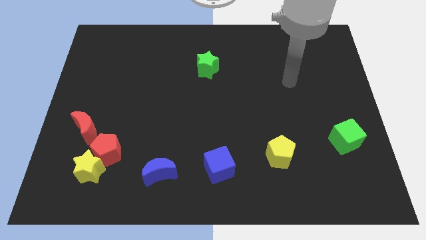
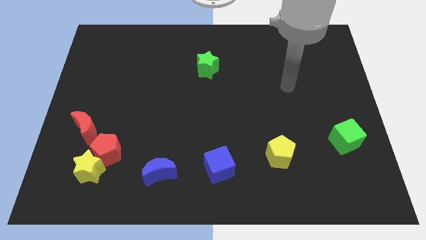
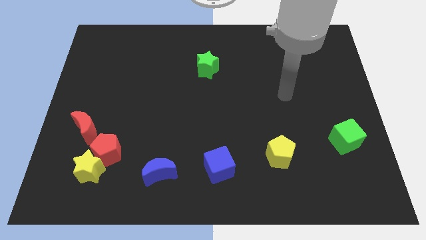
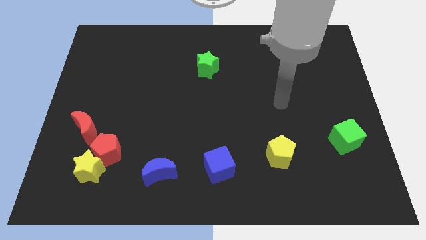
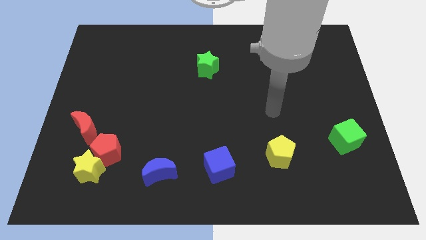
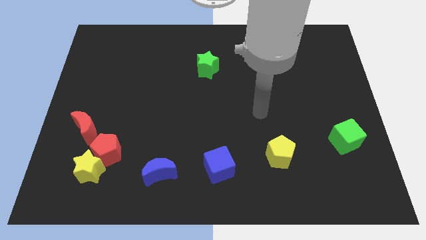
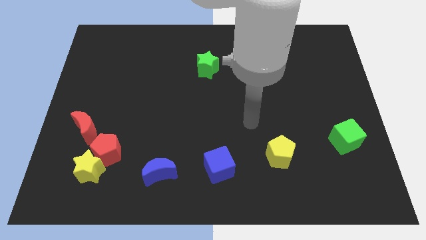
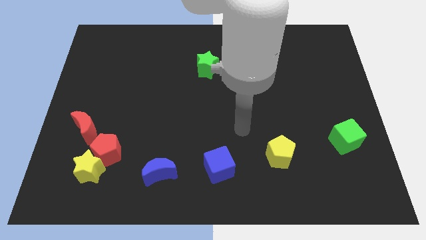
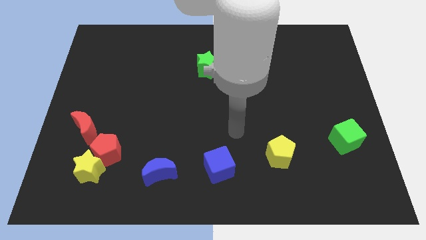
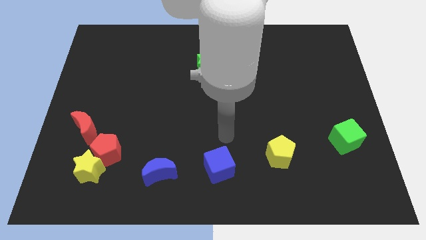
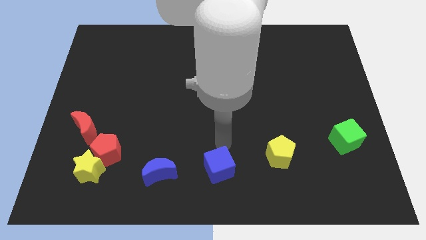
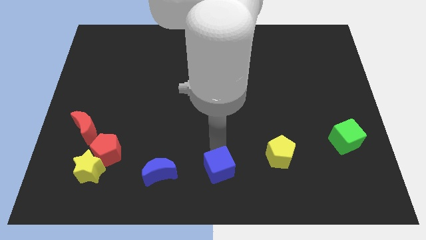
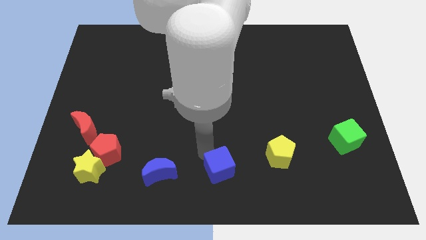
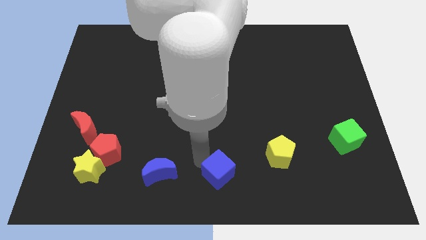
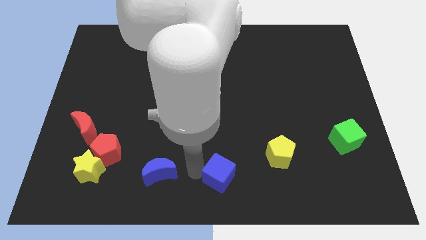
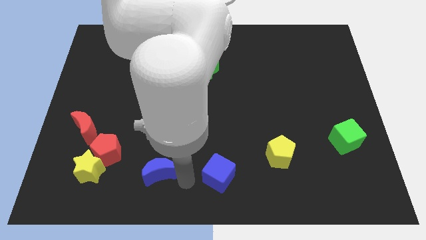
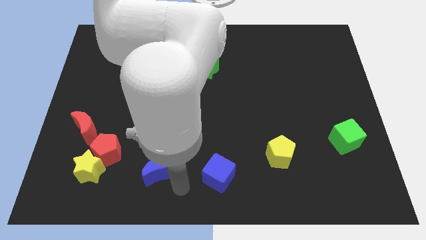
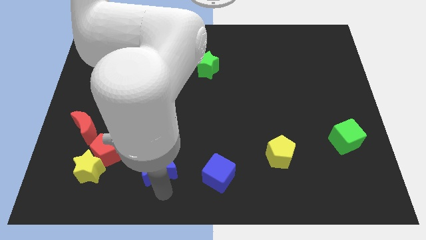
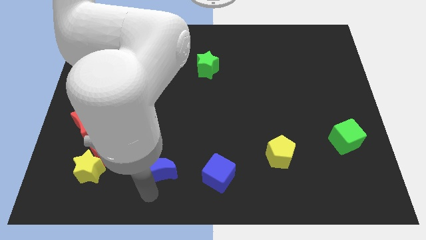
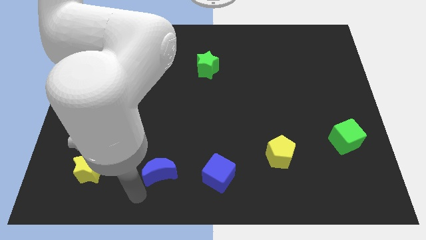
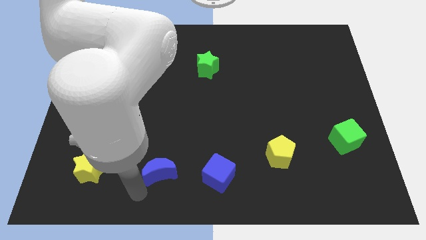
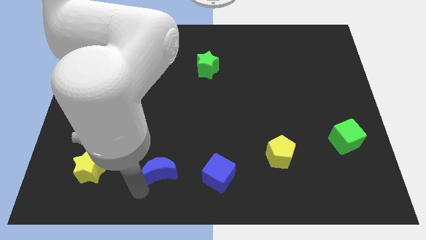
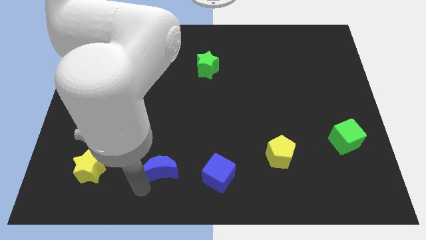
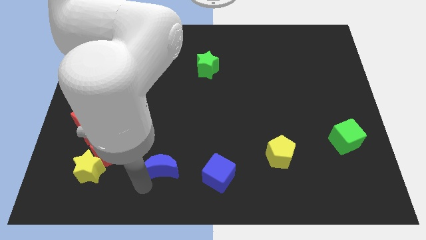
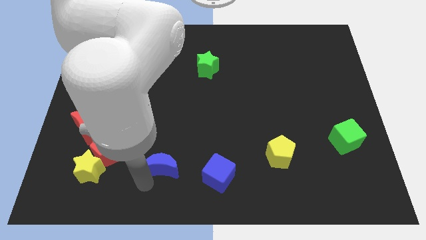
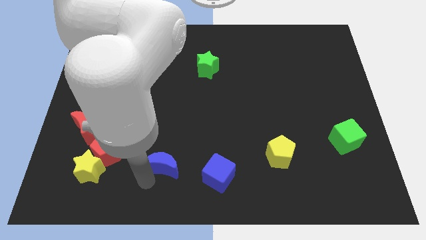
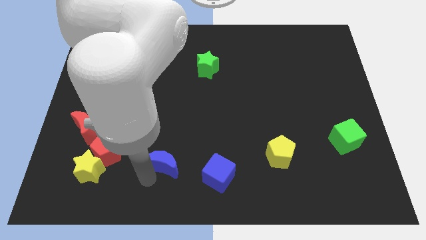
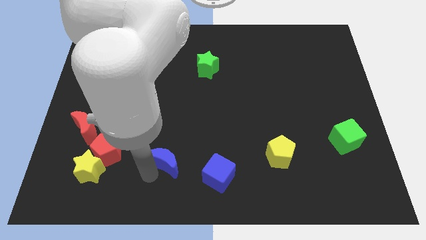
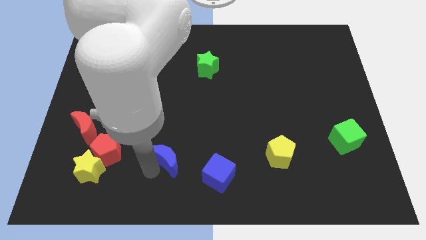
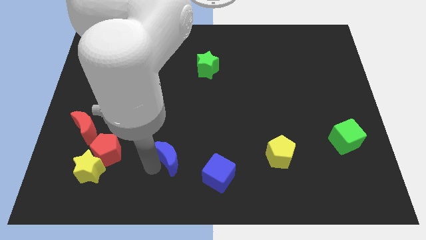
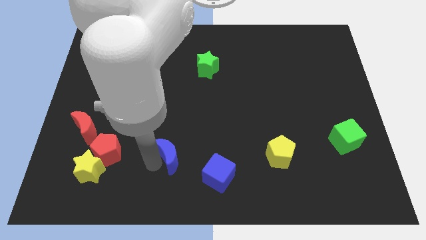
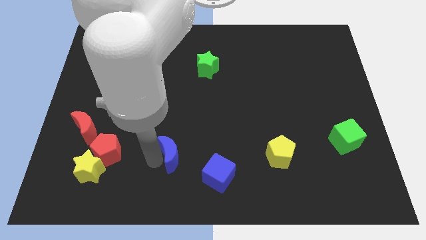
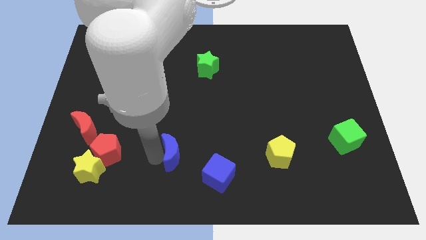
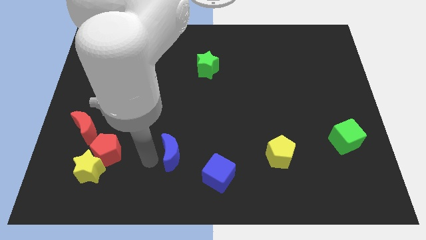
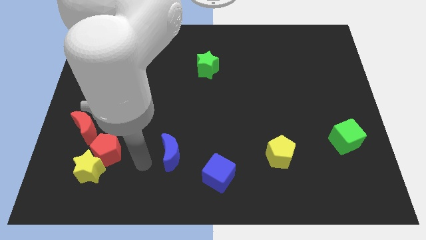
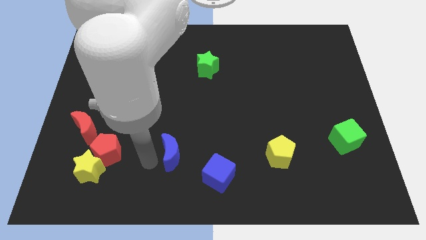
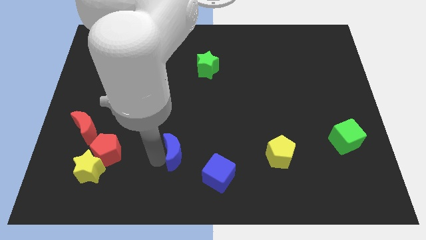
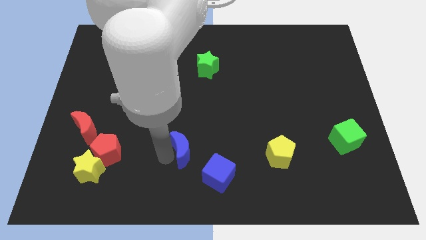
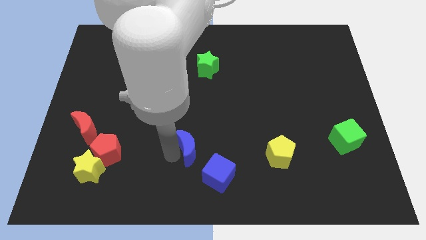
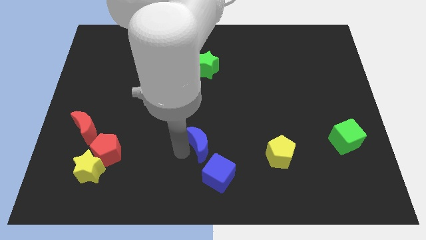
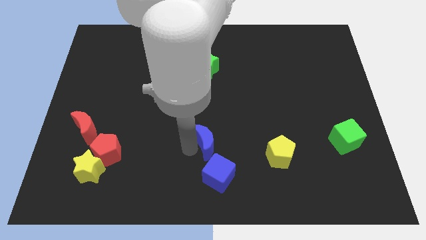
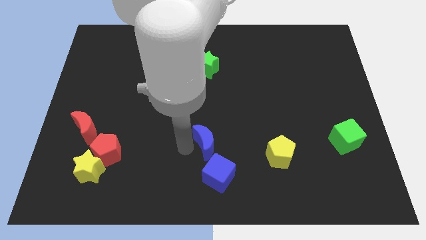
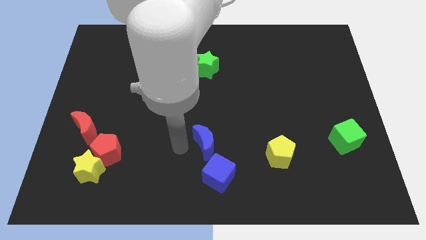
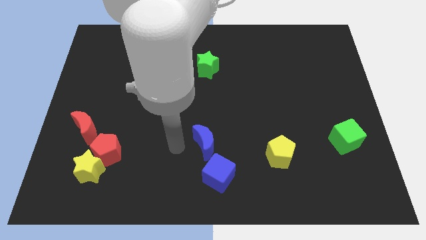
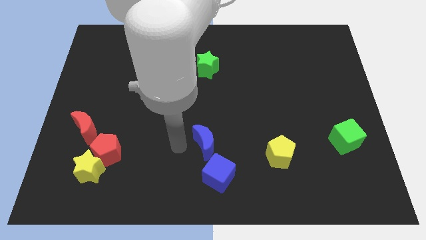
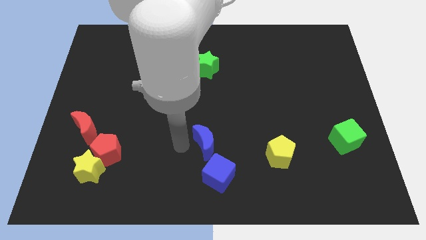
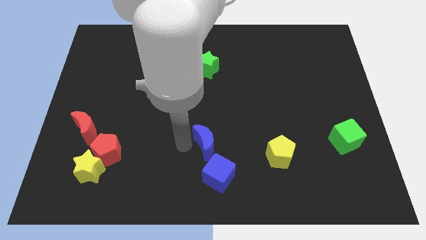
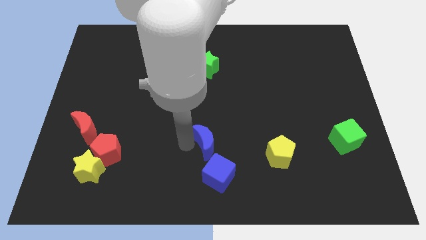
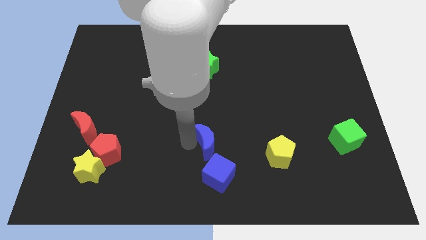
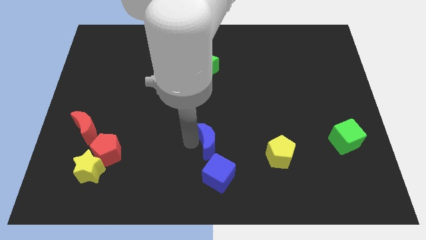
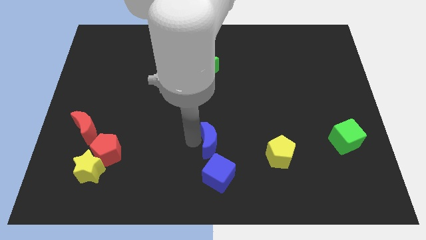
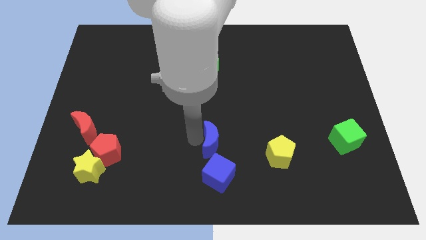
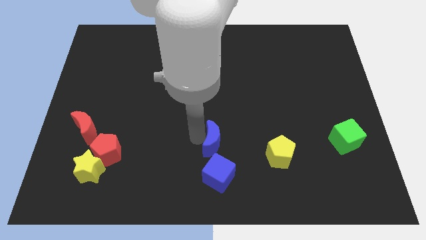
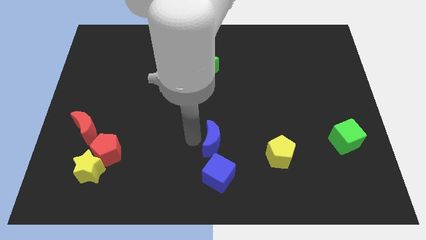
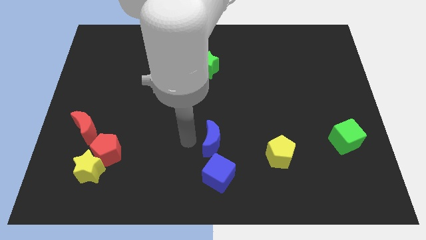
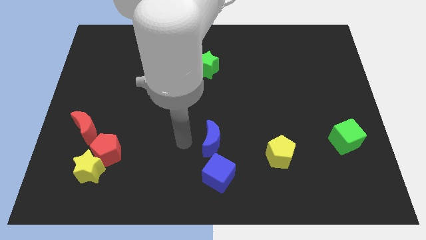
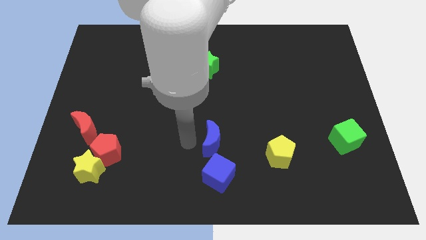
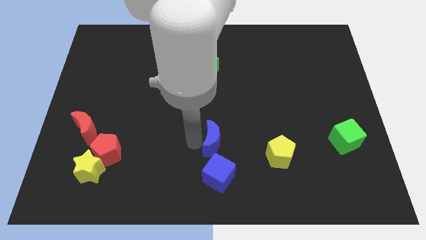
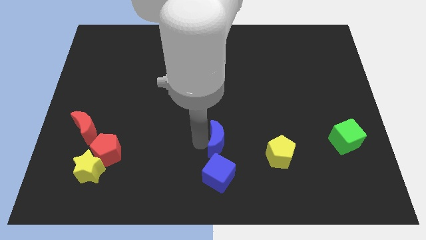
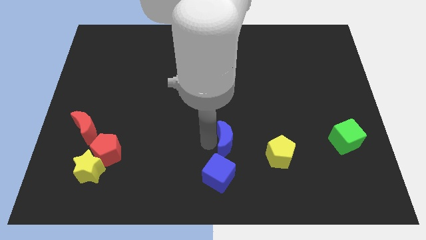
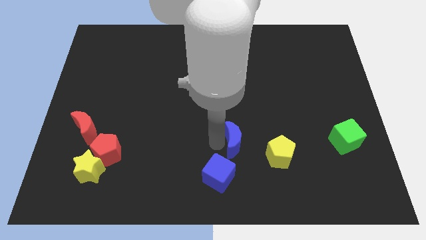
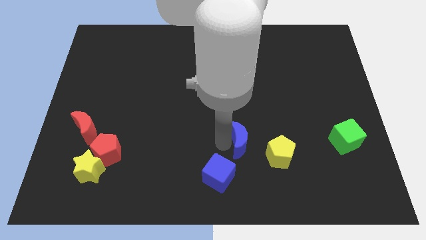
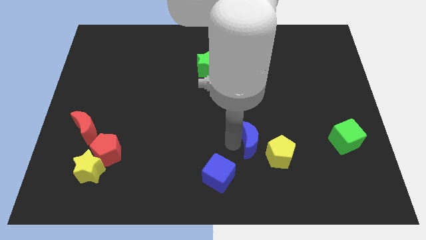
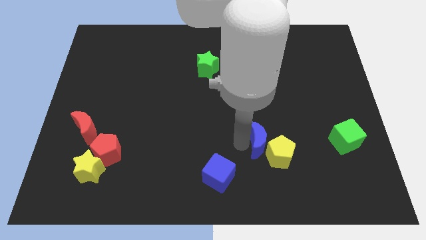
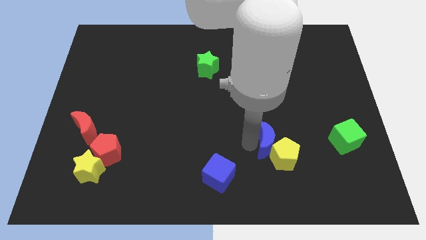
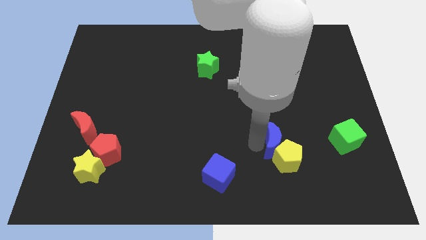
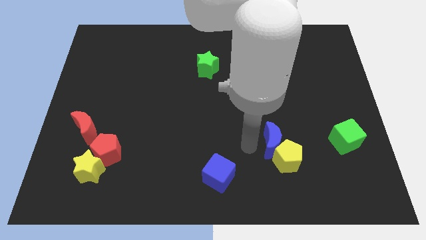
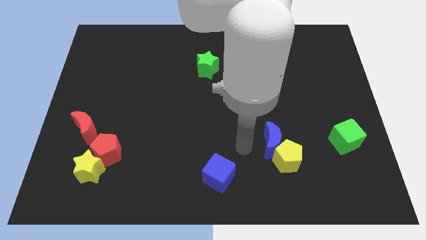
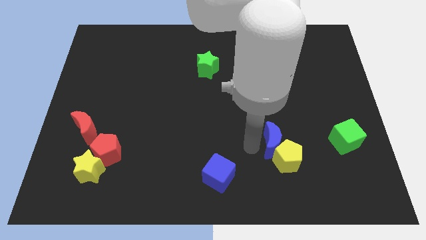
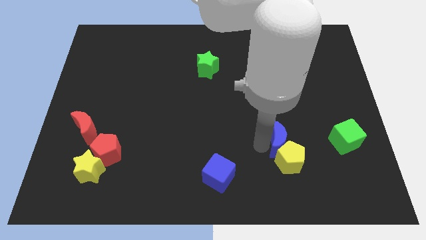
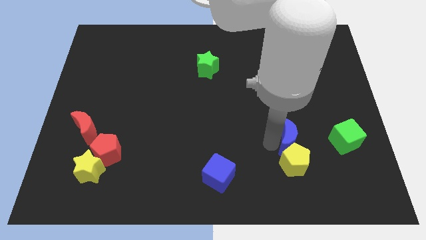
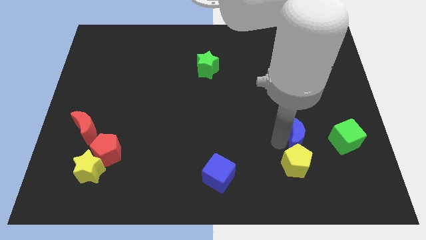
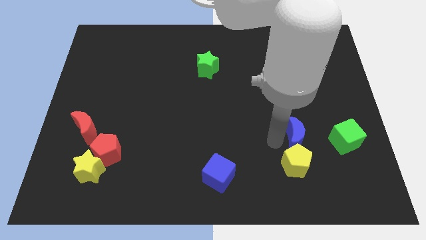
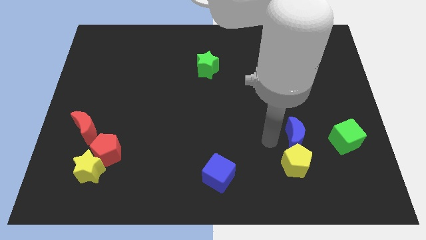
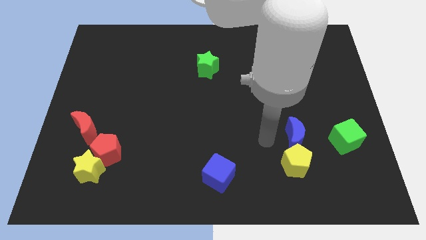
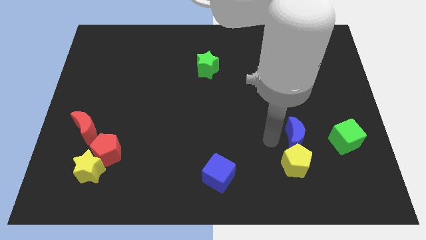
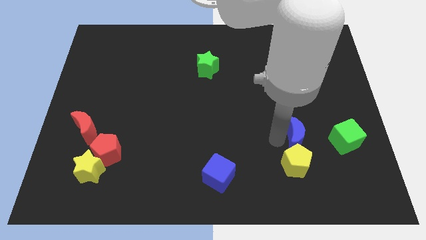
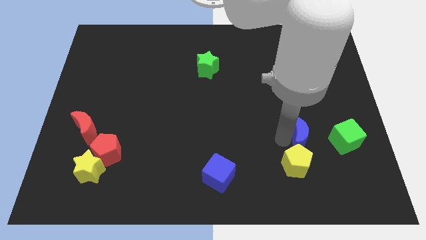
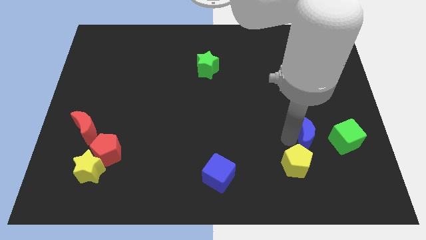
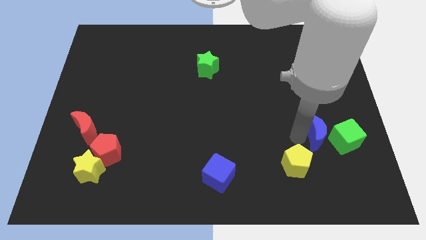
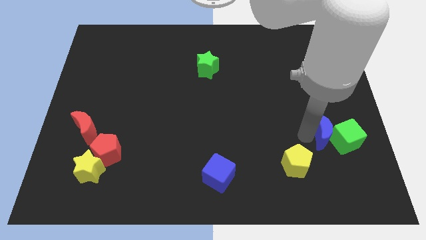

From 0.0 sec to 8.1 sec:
push the blue moon towards the green cube

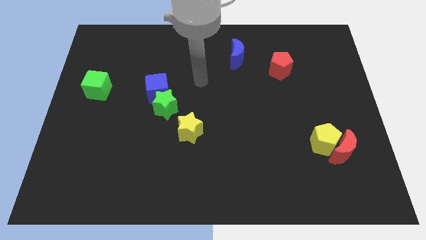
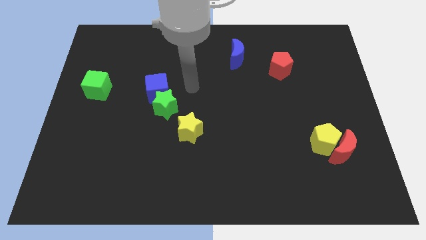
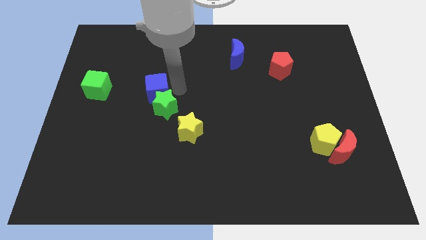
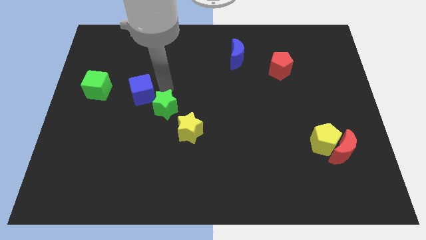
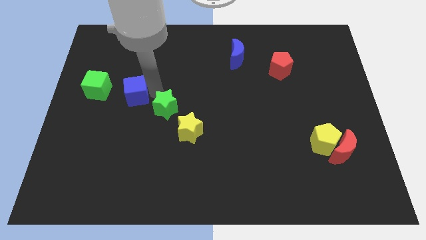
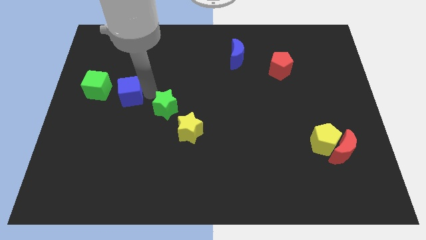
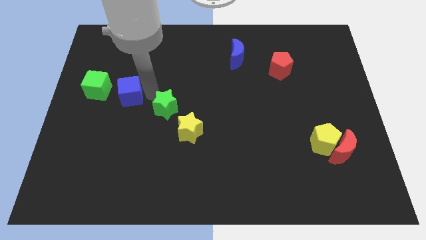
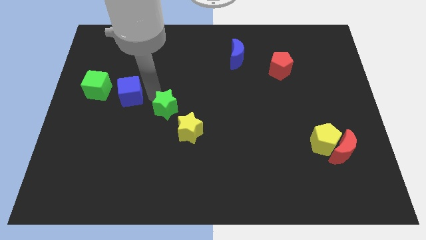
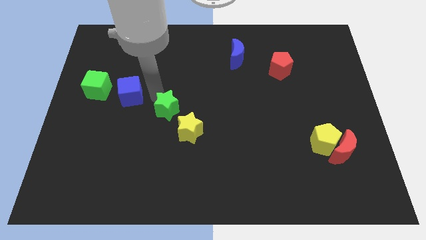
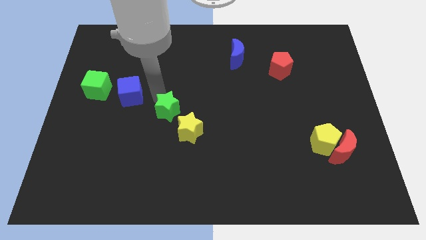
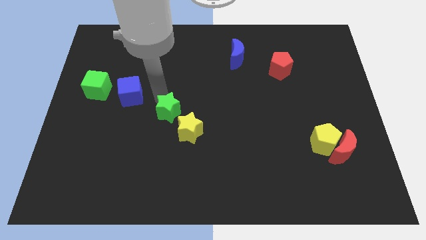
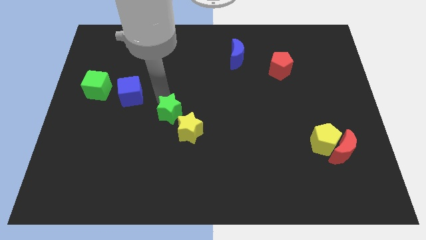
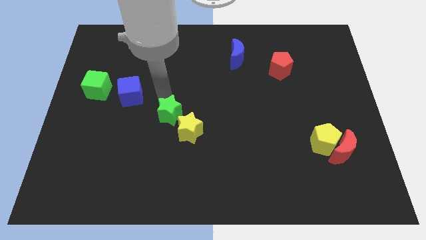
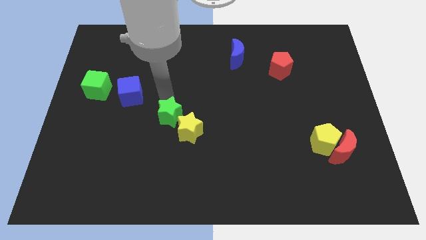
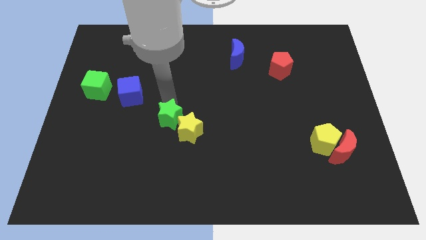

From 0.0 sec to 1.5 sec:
move the green star close to the yellow star
